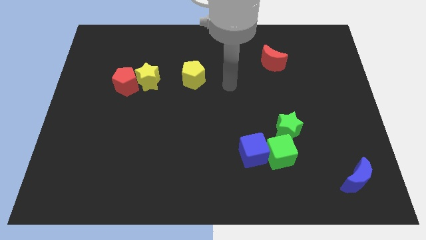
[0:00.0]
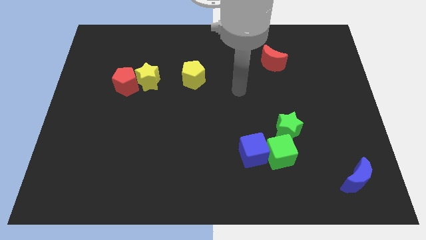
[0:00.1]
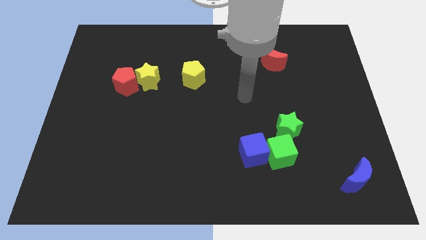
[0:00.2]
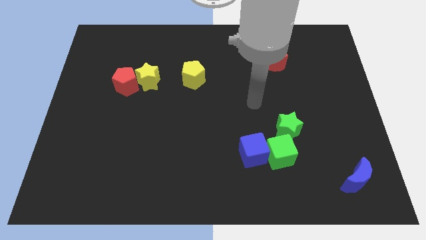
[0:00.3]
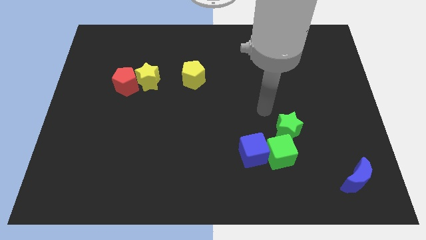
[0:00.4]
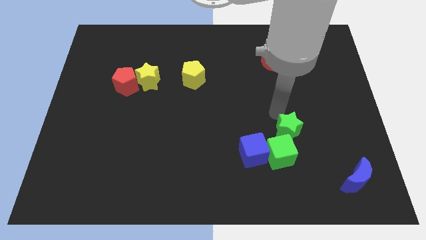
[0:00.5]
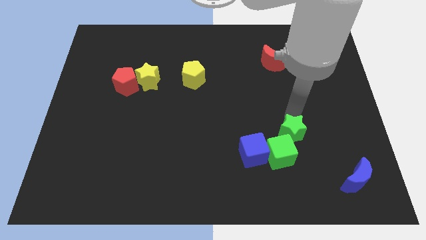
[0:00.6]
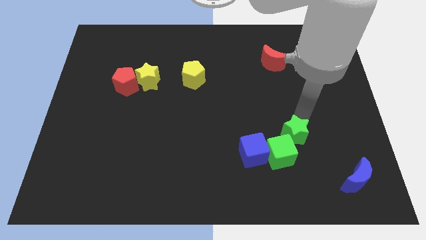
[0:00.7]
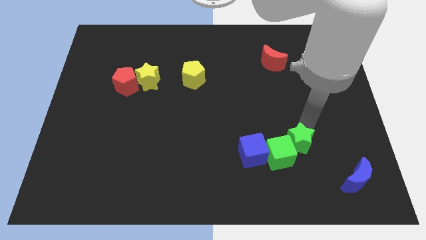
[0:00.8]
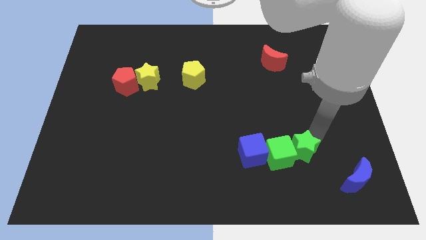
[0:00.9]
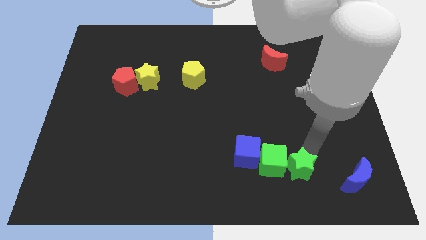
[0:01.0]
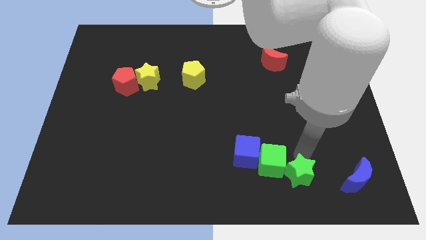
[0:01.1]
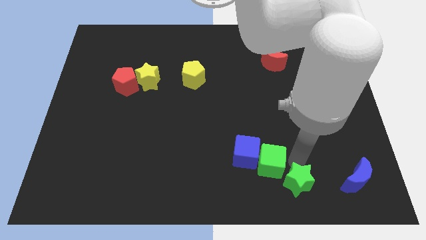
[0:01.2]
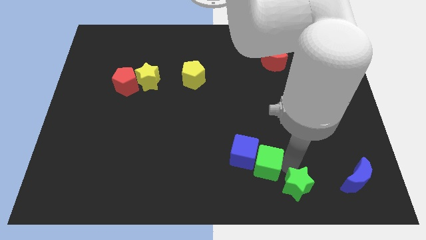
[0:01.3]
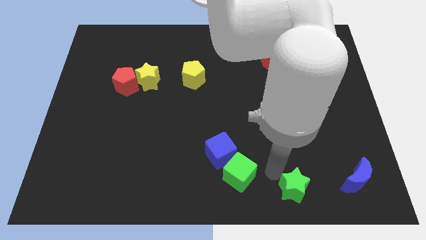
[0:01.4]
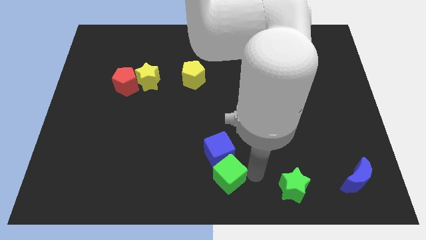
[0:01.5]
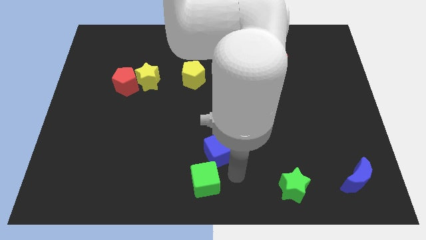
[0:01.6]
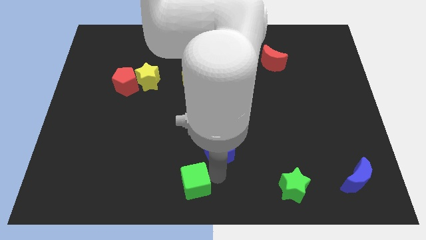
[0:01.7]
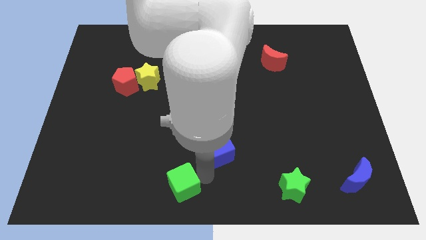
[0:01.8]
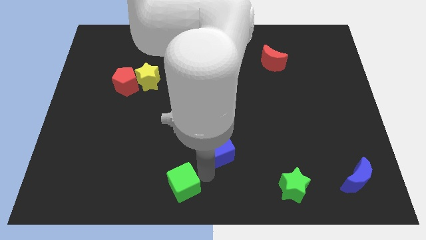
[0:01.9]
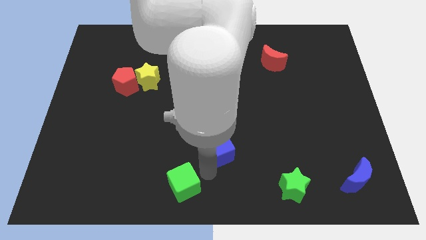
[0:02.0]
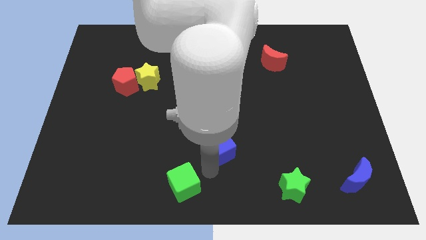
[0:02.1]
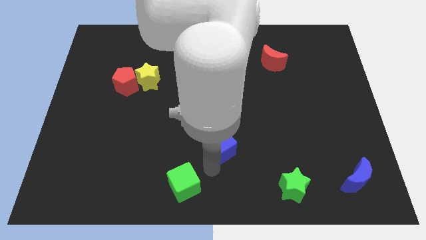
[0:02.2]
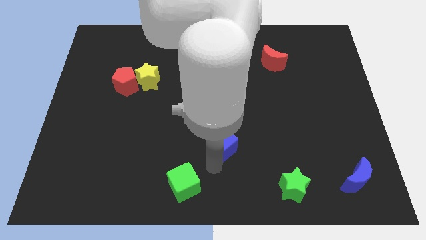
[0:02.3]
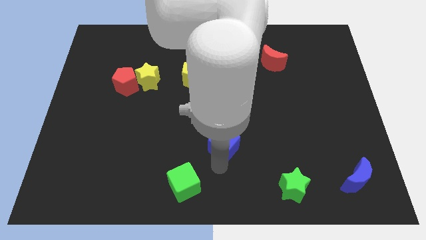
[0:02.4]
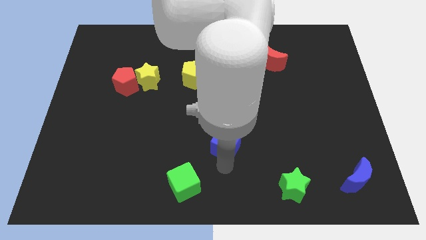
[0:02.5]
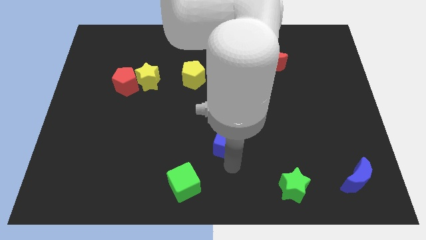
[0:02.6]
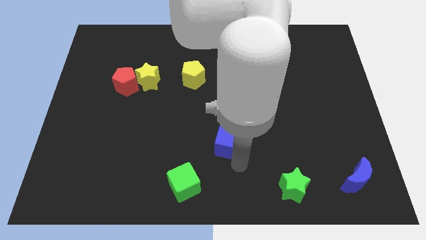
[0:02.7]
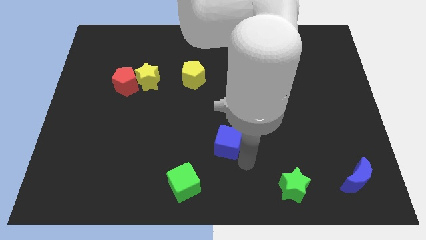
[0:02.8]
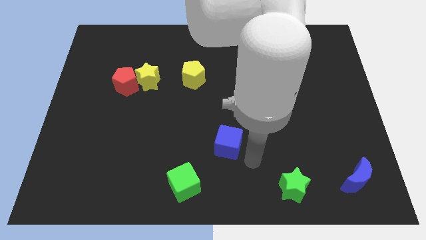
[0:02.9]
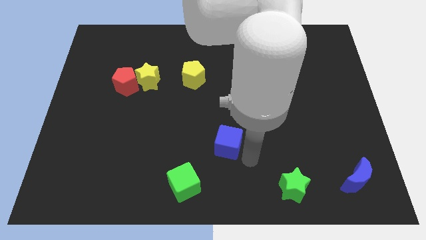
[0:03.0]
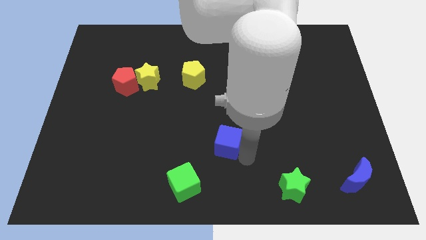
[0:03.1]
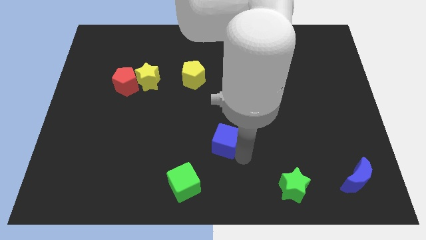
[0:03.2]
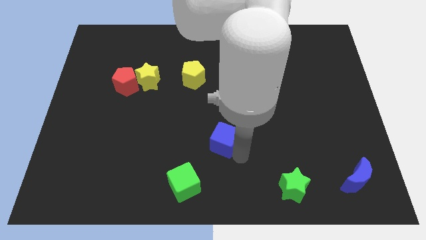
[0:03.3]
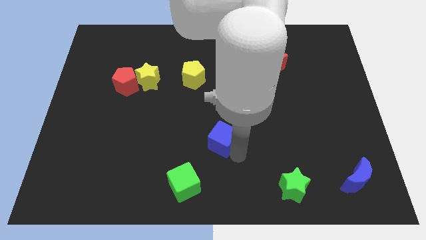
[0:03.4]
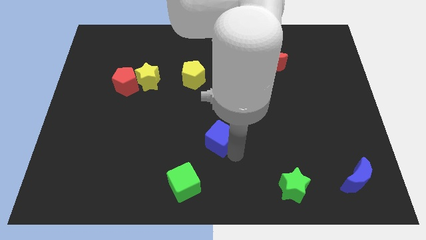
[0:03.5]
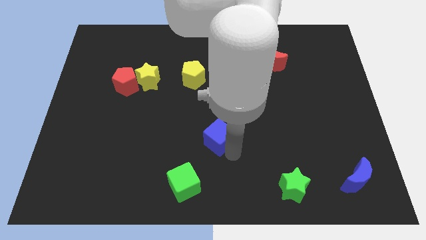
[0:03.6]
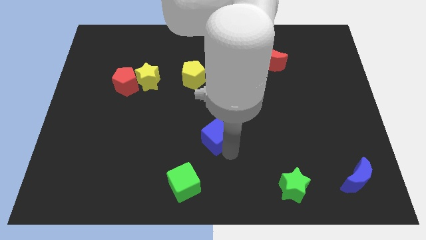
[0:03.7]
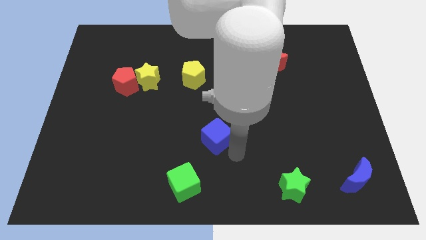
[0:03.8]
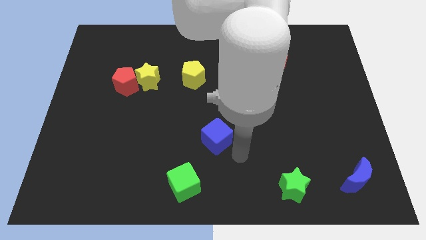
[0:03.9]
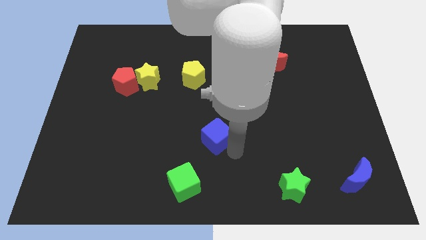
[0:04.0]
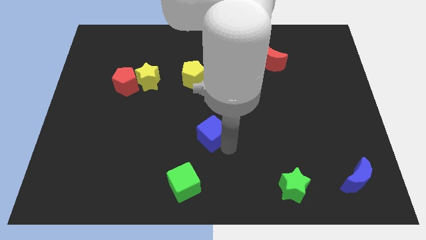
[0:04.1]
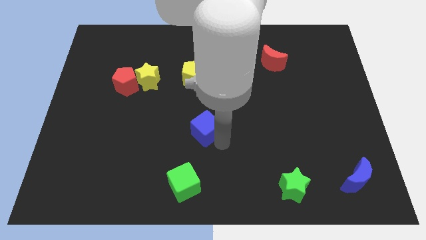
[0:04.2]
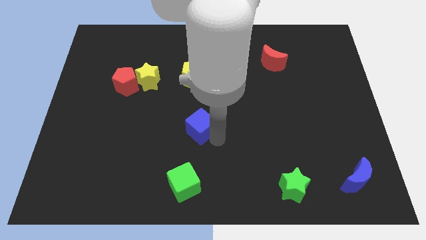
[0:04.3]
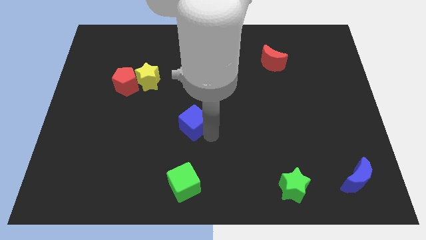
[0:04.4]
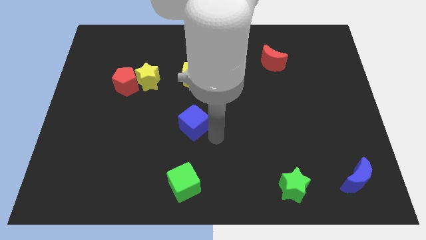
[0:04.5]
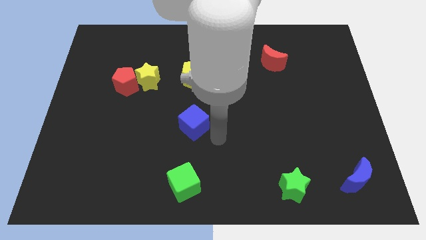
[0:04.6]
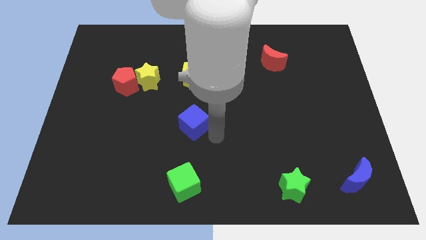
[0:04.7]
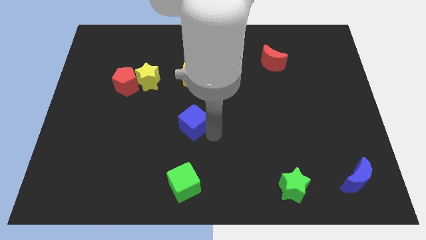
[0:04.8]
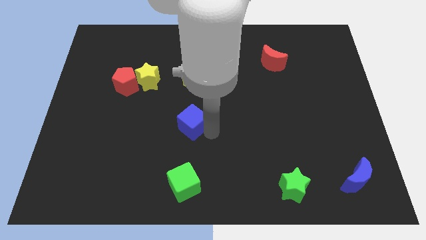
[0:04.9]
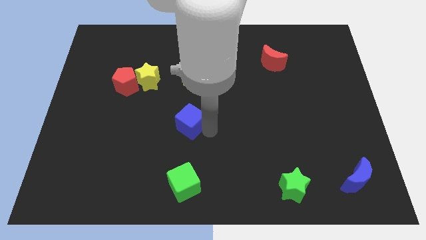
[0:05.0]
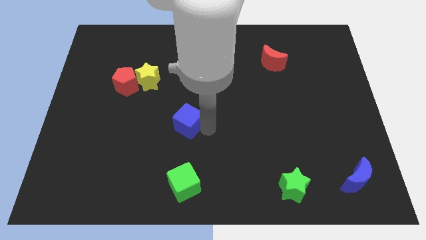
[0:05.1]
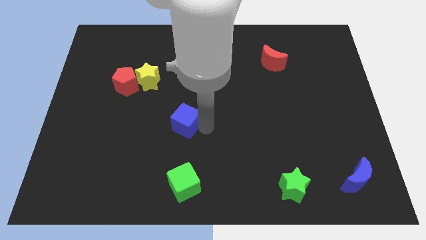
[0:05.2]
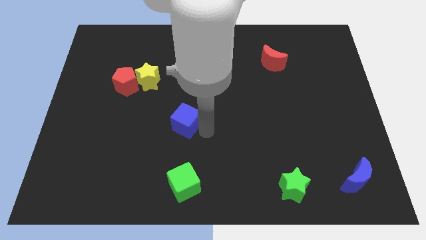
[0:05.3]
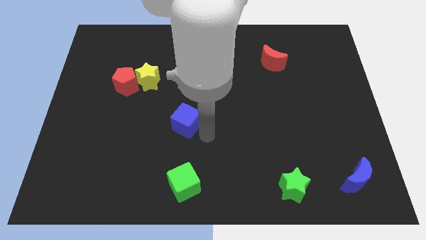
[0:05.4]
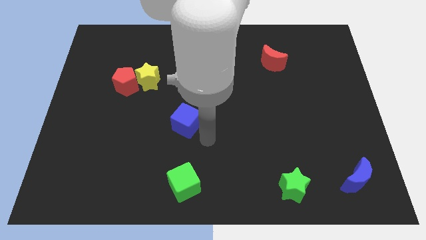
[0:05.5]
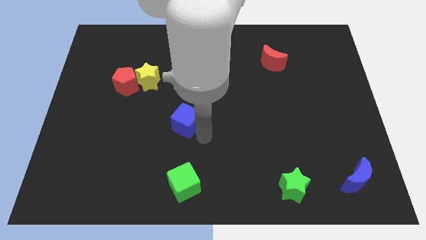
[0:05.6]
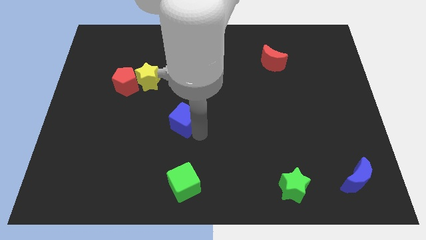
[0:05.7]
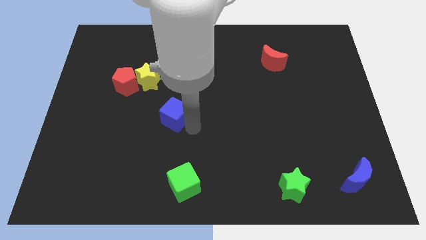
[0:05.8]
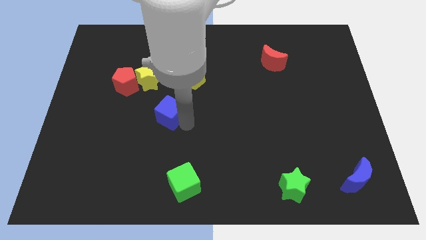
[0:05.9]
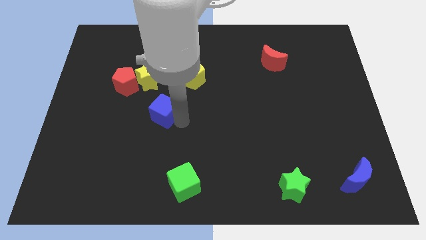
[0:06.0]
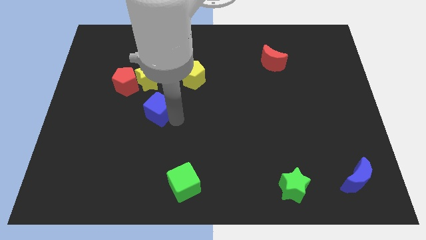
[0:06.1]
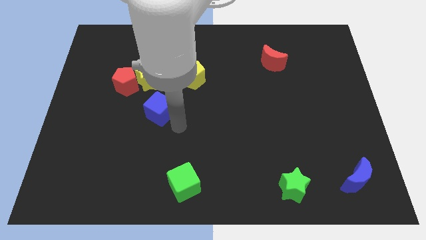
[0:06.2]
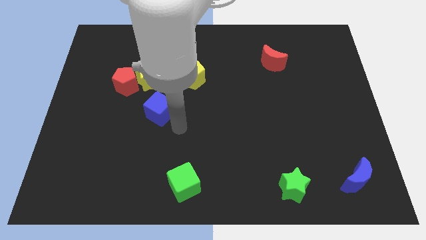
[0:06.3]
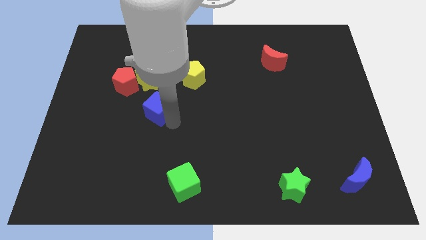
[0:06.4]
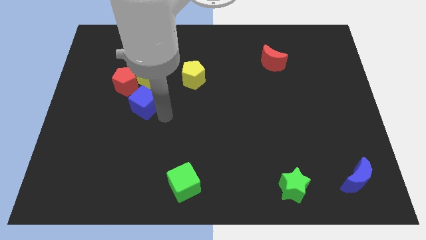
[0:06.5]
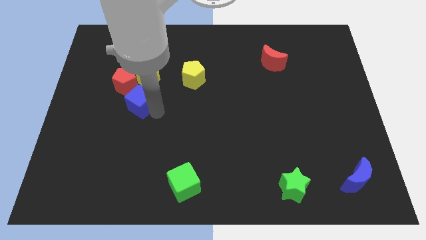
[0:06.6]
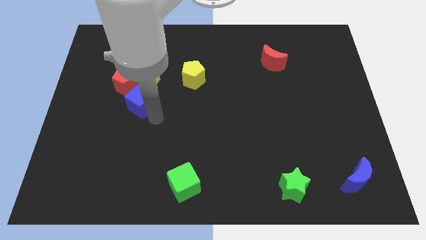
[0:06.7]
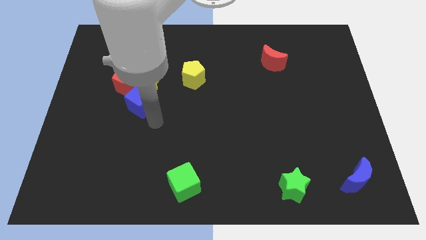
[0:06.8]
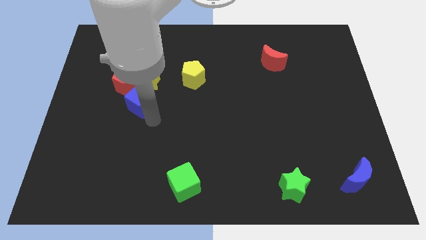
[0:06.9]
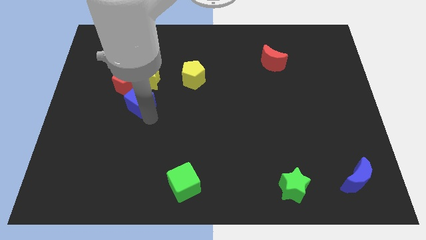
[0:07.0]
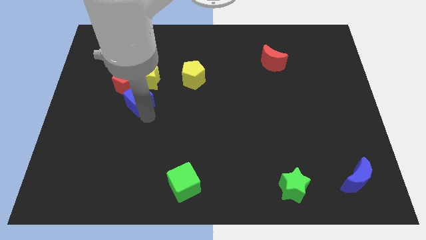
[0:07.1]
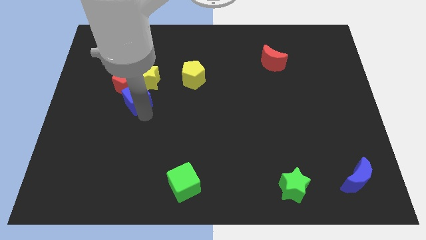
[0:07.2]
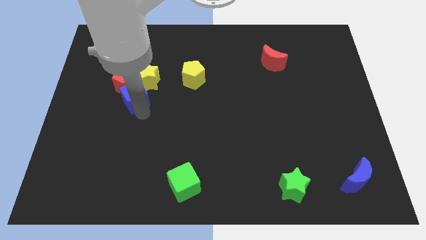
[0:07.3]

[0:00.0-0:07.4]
push the blue cube next to the red pentagon

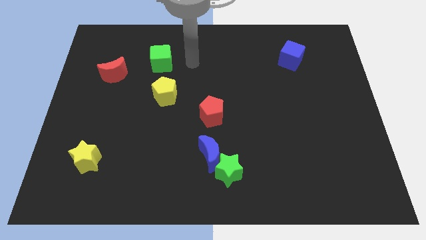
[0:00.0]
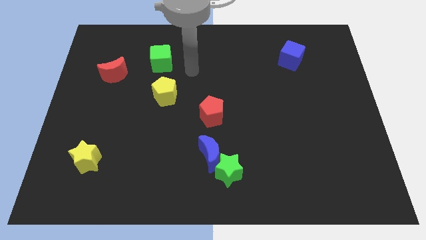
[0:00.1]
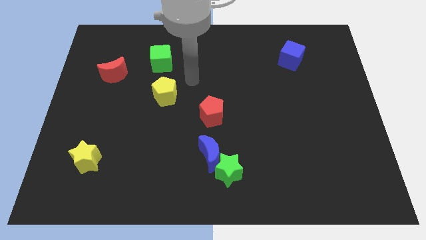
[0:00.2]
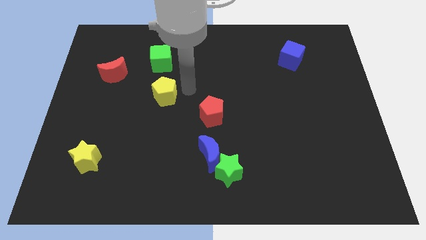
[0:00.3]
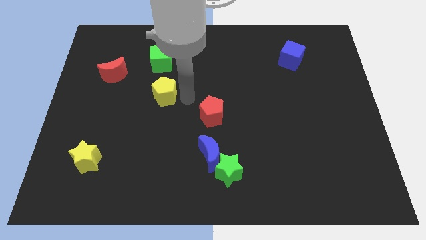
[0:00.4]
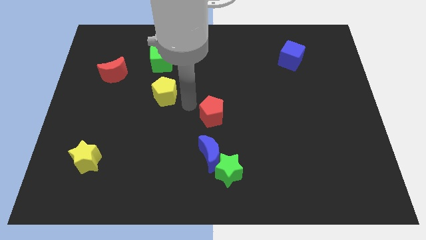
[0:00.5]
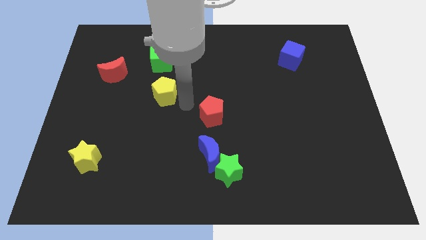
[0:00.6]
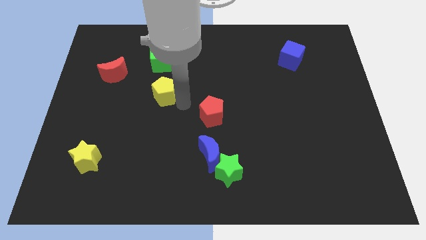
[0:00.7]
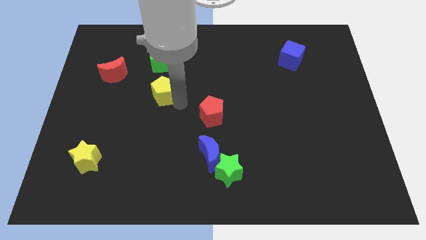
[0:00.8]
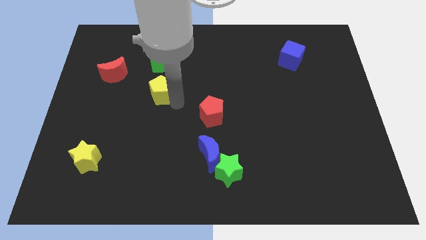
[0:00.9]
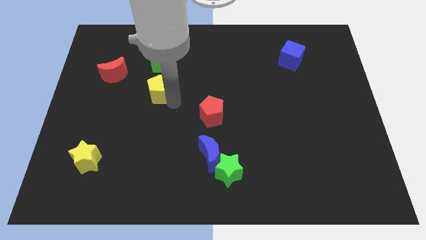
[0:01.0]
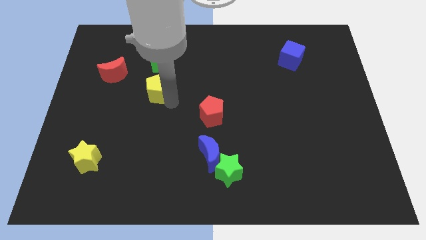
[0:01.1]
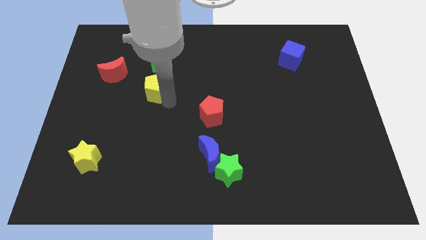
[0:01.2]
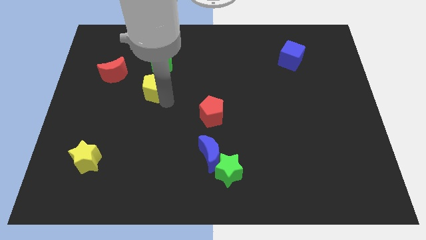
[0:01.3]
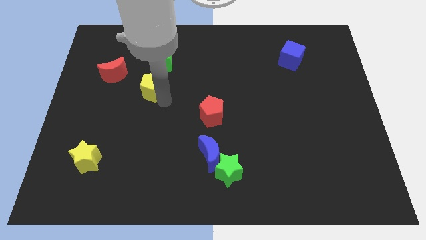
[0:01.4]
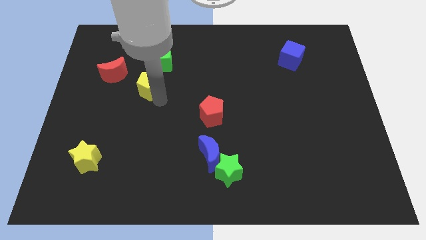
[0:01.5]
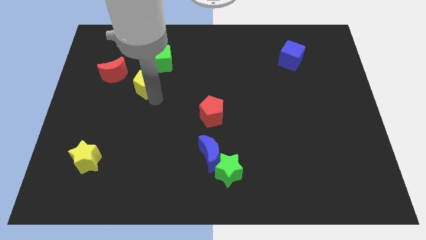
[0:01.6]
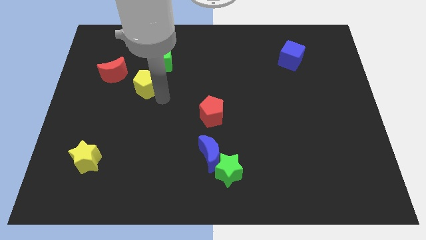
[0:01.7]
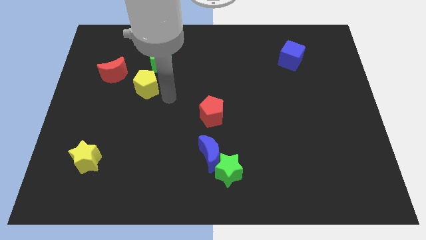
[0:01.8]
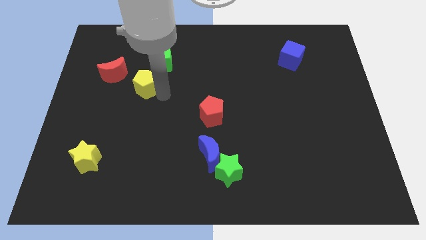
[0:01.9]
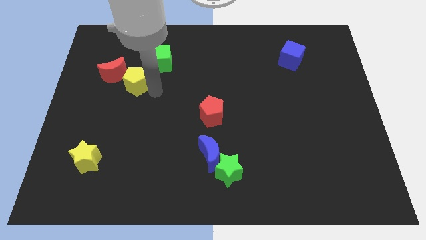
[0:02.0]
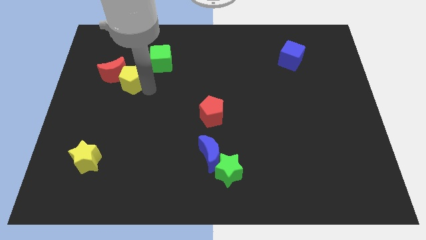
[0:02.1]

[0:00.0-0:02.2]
move the yellow pentagon next to the red moon
